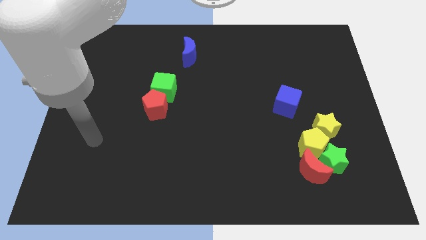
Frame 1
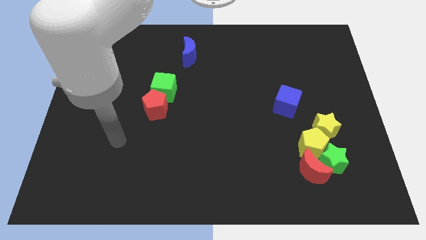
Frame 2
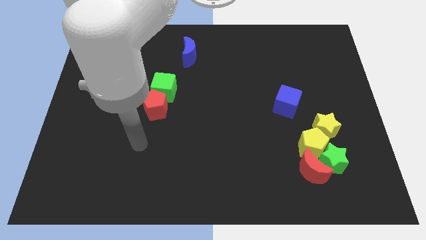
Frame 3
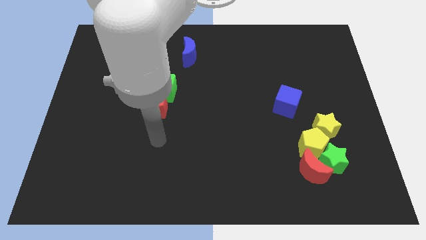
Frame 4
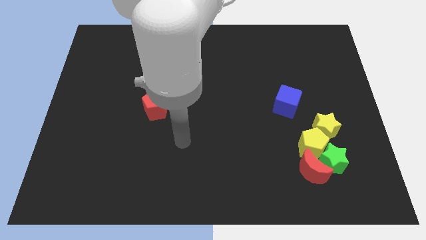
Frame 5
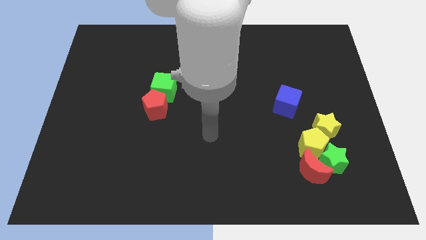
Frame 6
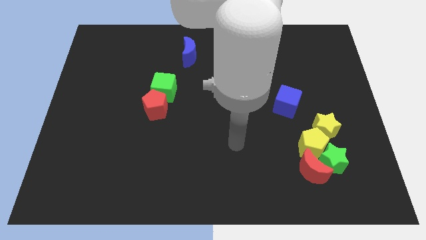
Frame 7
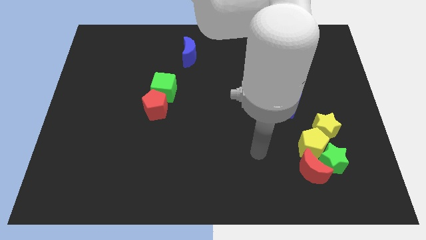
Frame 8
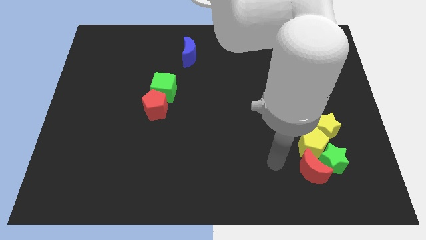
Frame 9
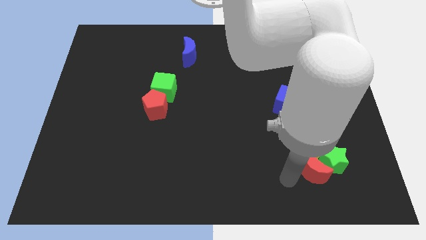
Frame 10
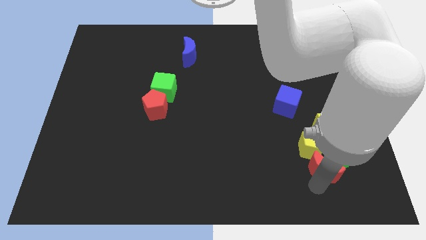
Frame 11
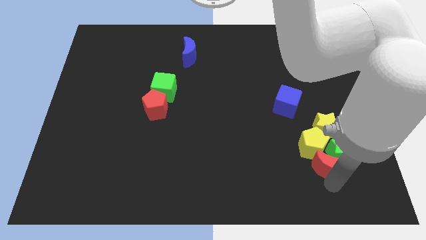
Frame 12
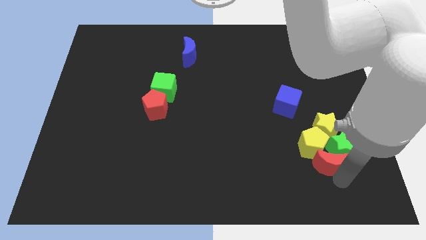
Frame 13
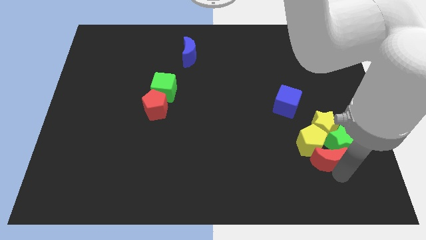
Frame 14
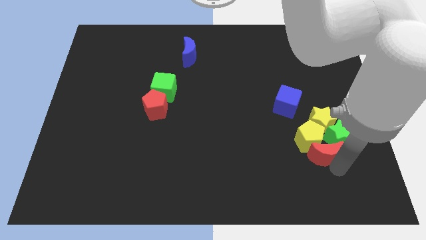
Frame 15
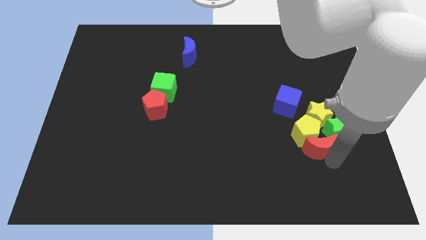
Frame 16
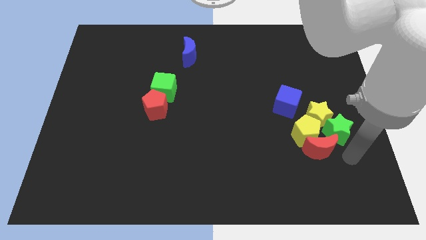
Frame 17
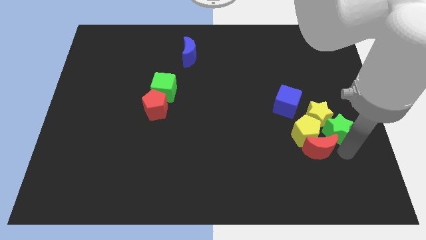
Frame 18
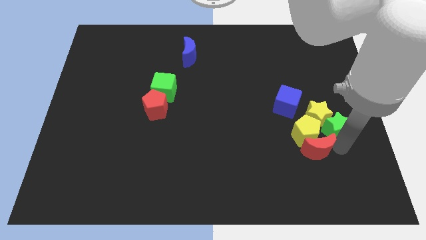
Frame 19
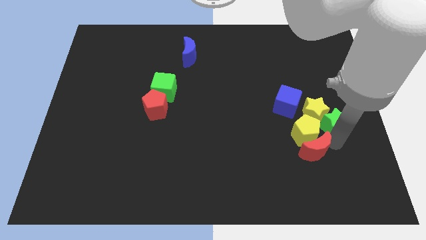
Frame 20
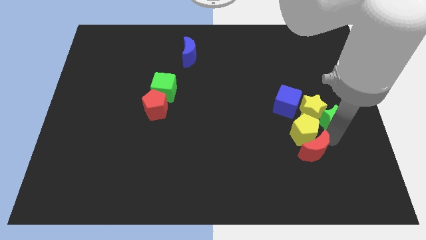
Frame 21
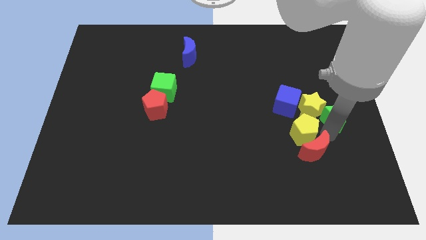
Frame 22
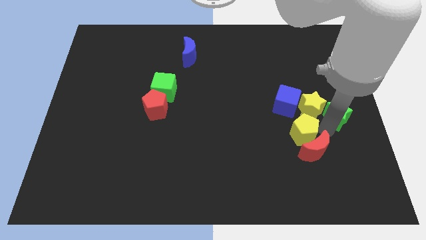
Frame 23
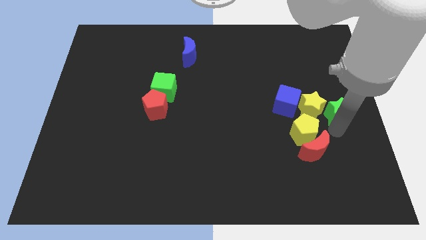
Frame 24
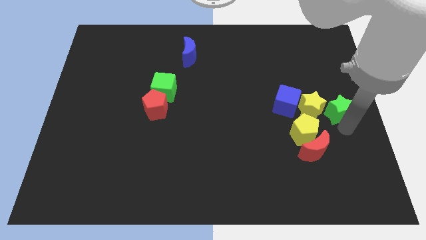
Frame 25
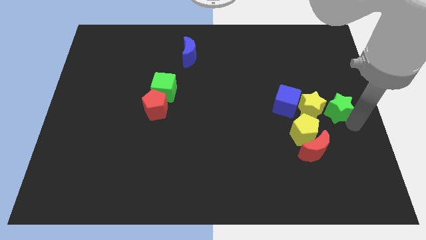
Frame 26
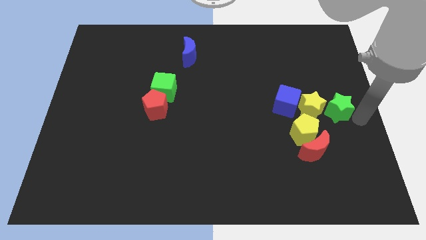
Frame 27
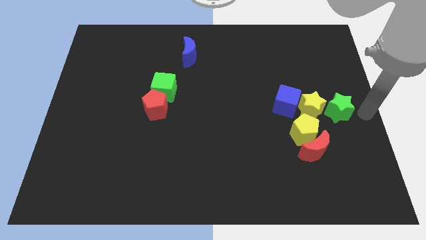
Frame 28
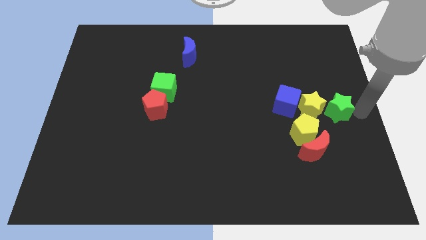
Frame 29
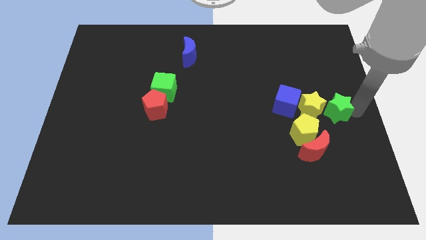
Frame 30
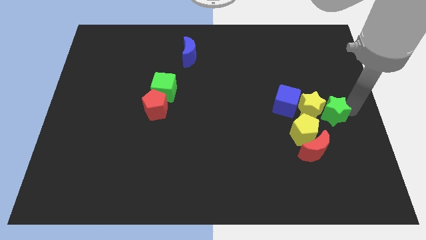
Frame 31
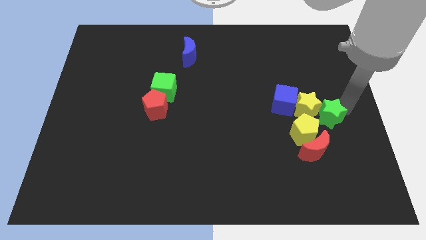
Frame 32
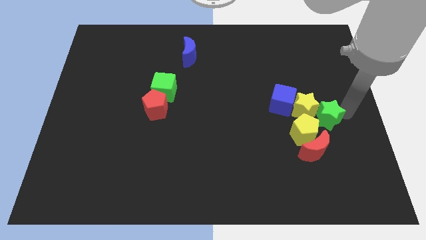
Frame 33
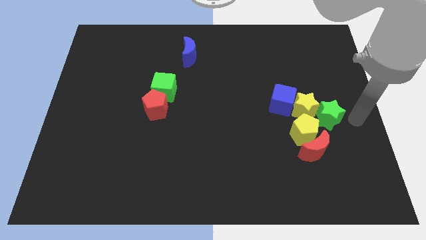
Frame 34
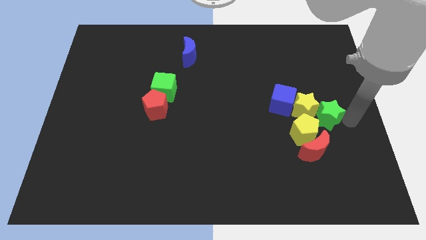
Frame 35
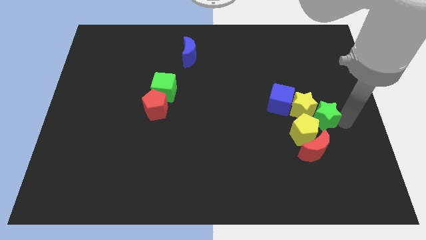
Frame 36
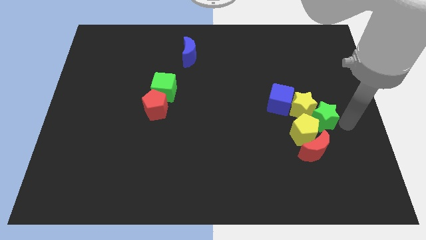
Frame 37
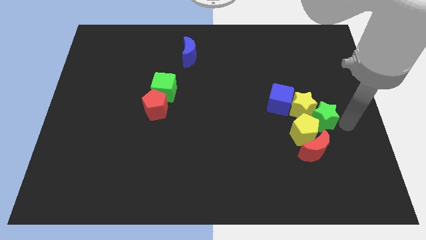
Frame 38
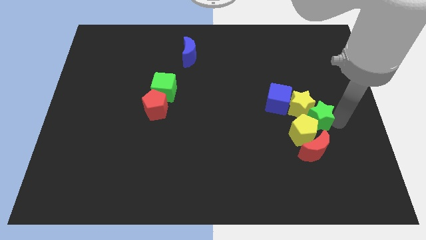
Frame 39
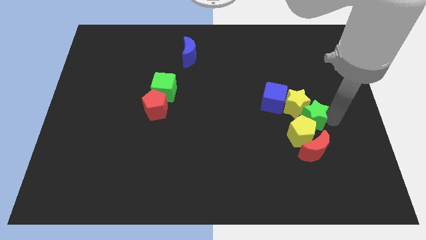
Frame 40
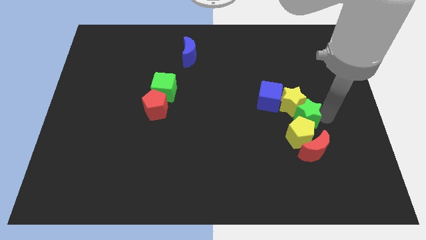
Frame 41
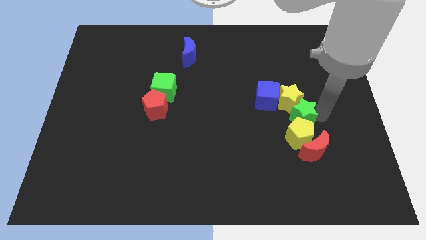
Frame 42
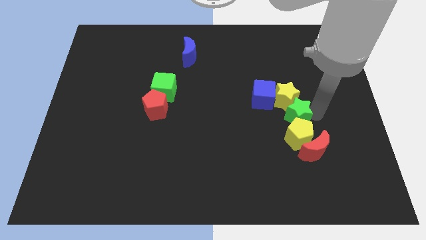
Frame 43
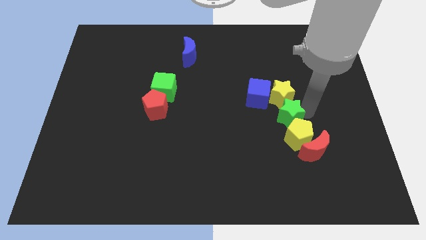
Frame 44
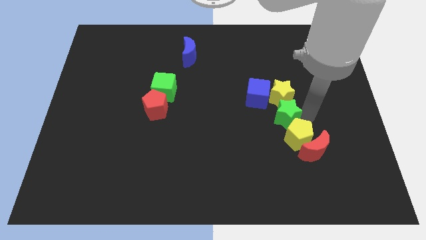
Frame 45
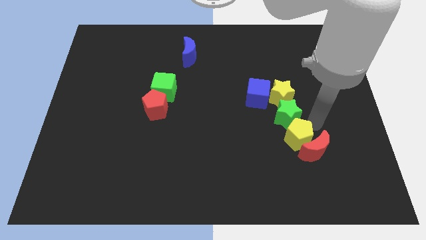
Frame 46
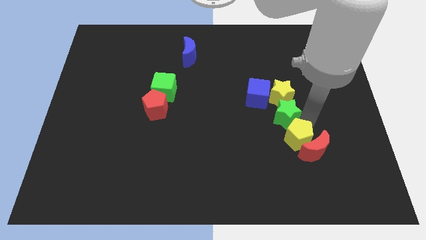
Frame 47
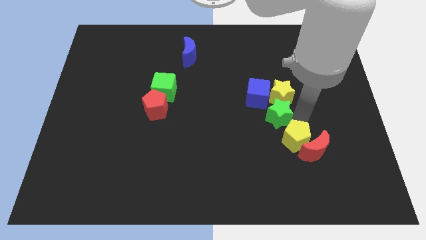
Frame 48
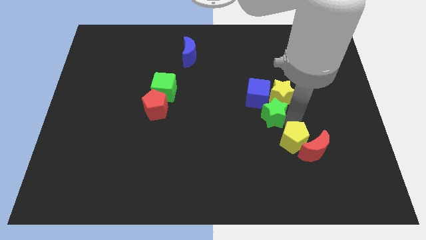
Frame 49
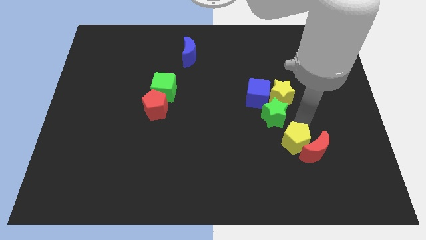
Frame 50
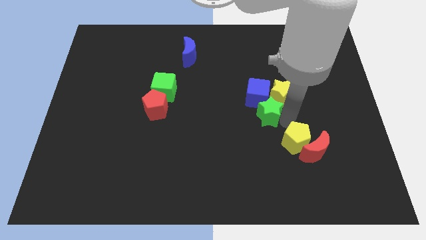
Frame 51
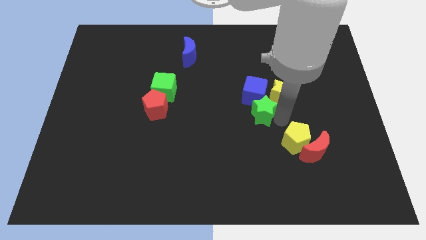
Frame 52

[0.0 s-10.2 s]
slide the green star to the middle of the board

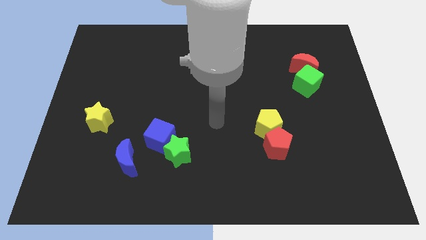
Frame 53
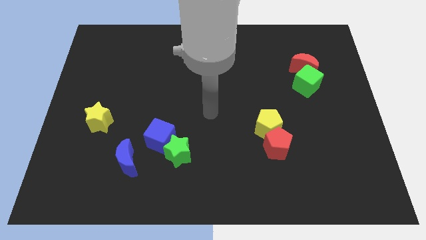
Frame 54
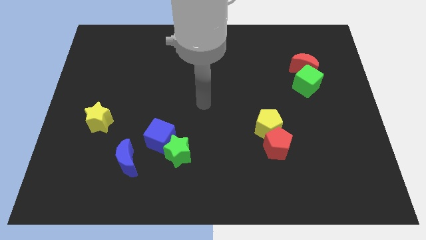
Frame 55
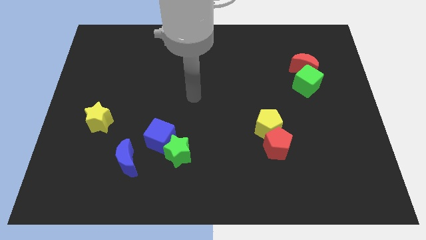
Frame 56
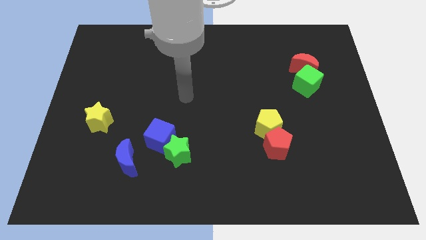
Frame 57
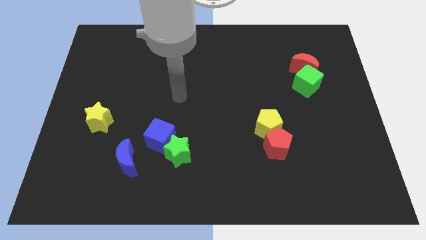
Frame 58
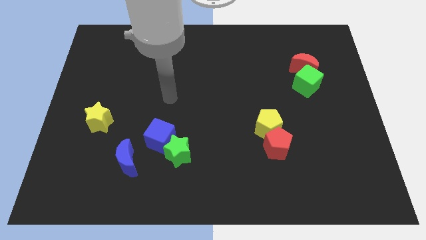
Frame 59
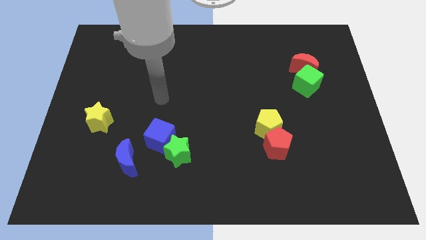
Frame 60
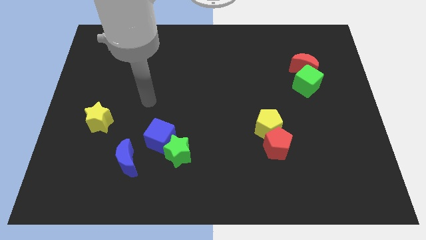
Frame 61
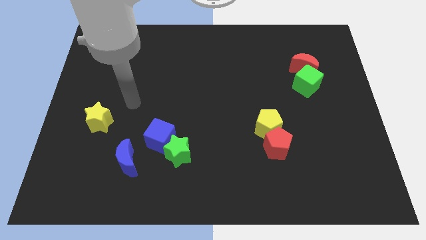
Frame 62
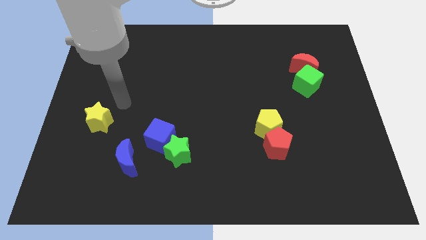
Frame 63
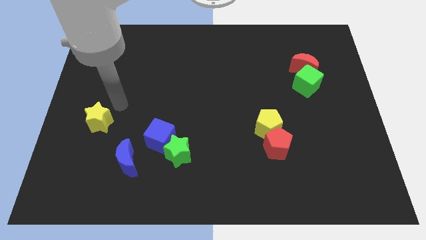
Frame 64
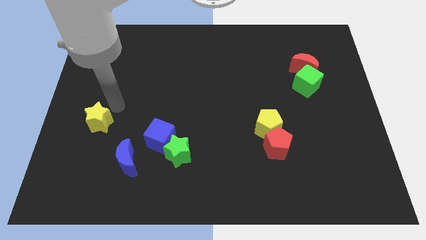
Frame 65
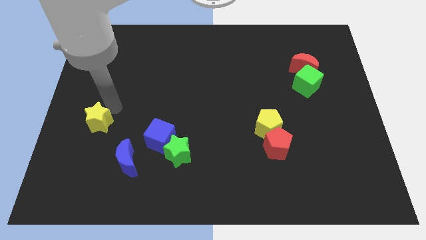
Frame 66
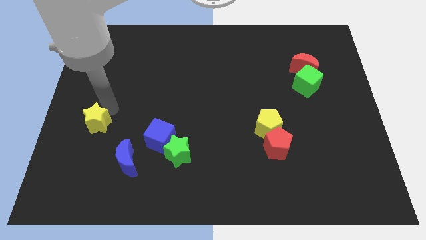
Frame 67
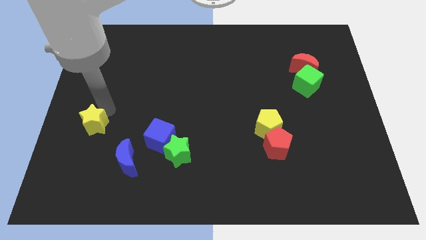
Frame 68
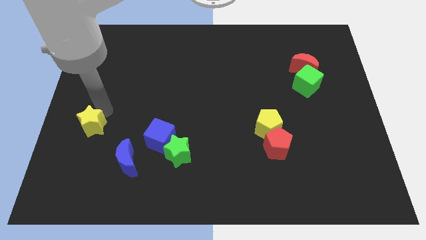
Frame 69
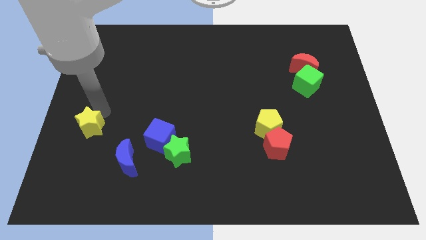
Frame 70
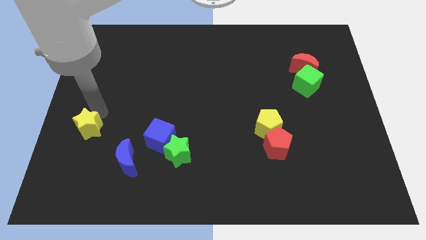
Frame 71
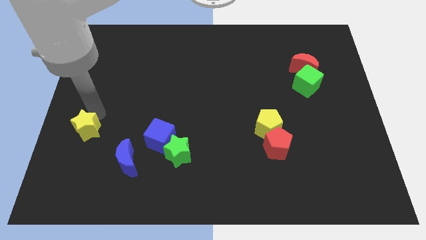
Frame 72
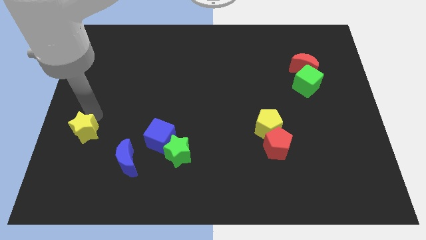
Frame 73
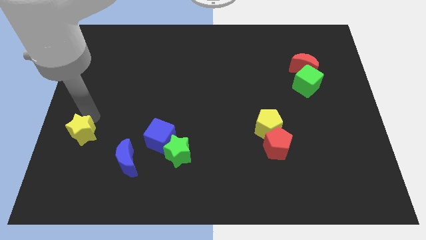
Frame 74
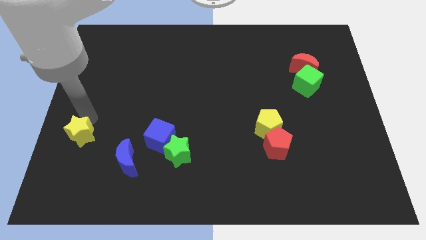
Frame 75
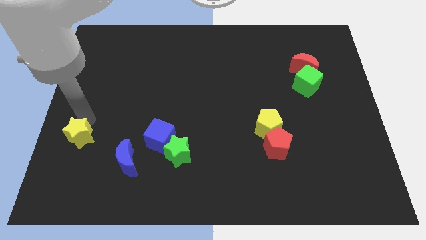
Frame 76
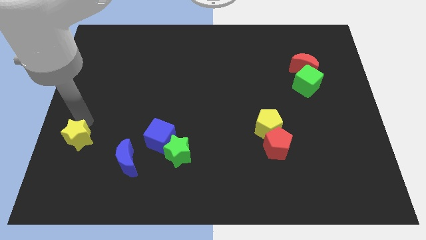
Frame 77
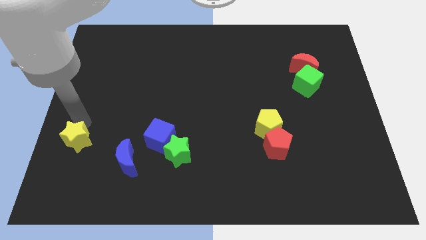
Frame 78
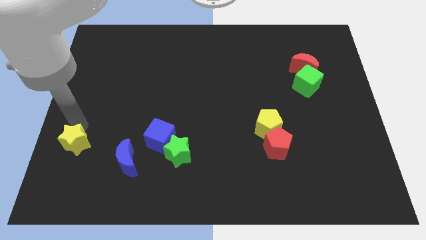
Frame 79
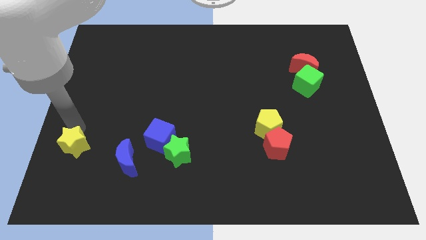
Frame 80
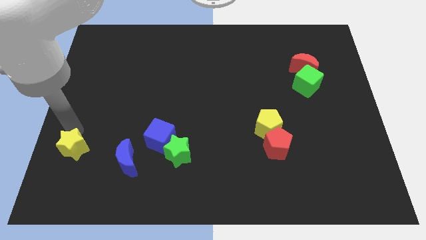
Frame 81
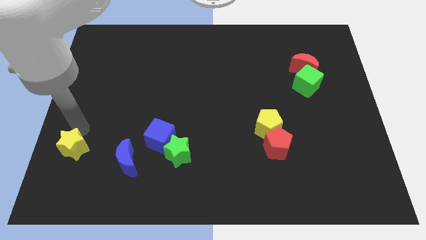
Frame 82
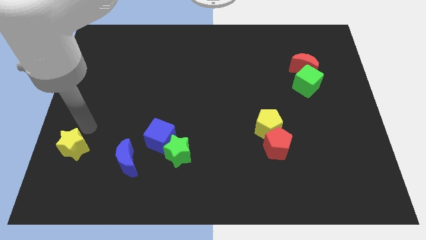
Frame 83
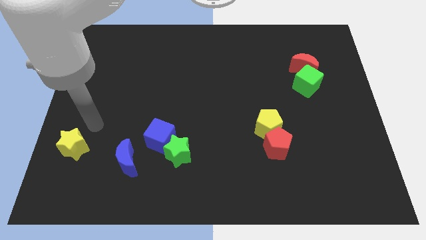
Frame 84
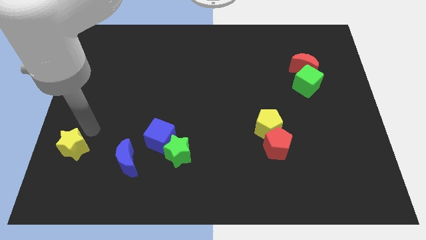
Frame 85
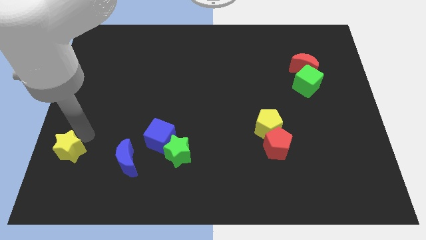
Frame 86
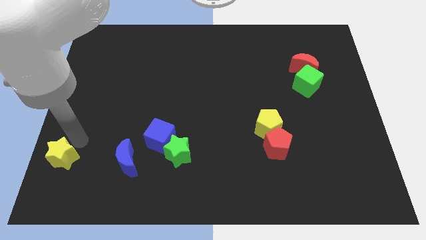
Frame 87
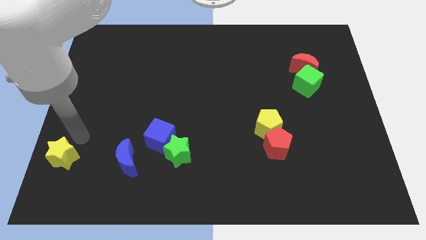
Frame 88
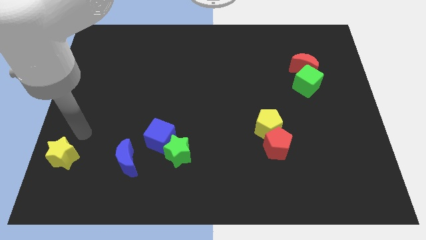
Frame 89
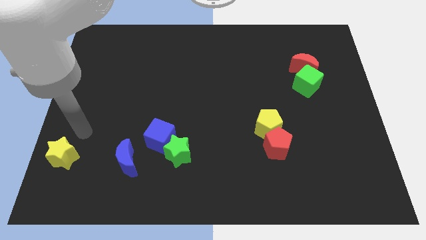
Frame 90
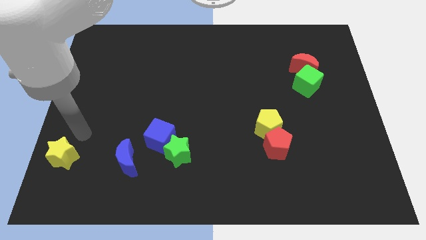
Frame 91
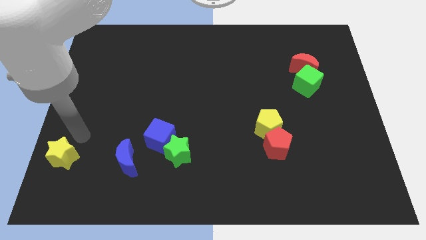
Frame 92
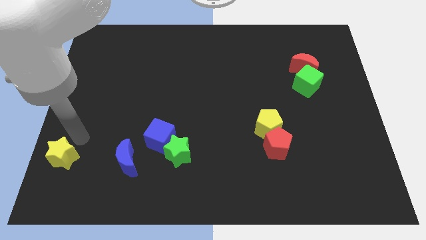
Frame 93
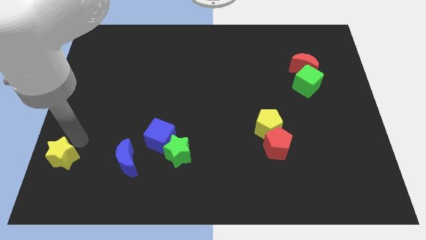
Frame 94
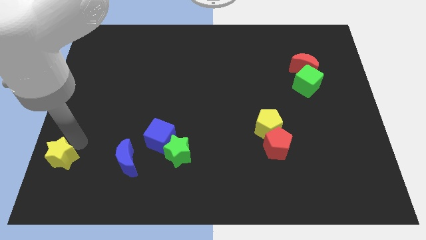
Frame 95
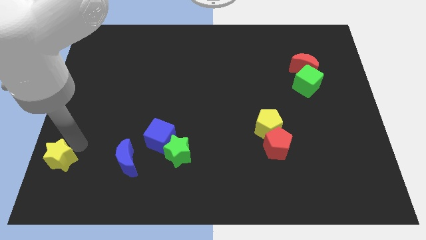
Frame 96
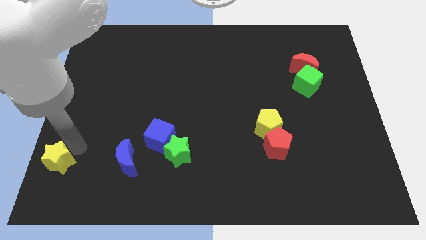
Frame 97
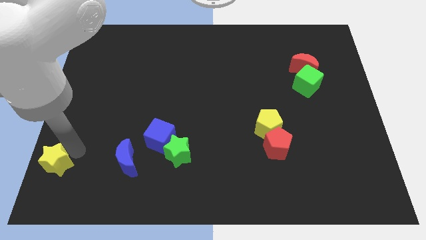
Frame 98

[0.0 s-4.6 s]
push the yellow star to the bottom left
